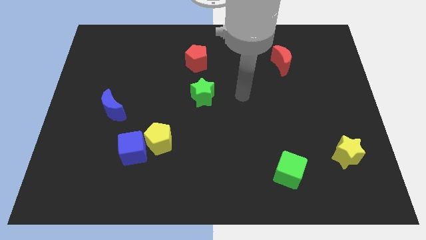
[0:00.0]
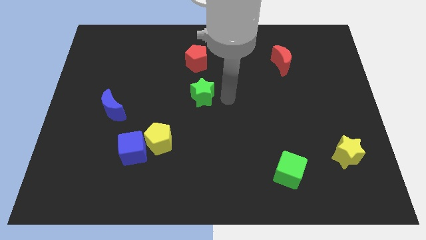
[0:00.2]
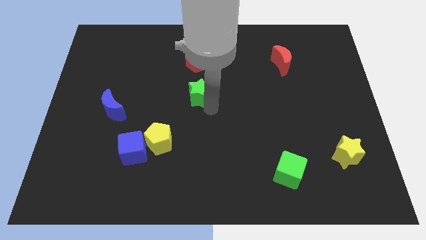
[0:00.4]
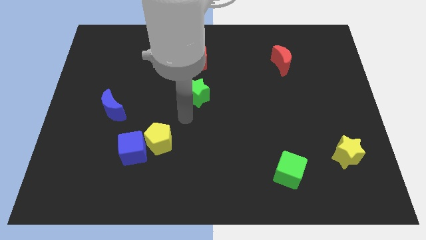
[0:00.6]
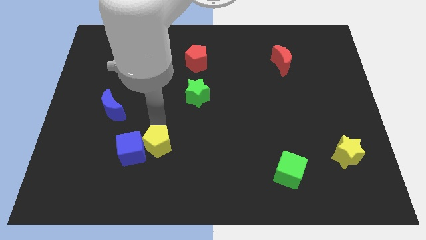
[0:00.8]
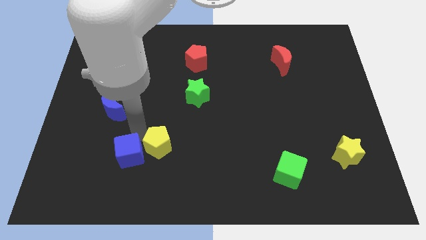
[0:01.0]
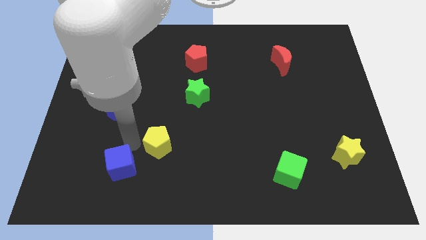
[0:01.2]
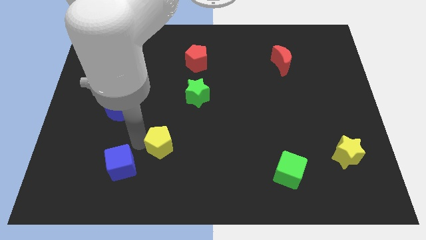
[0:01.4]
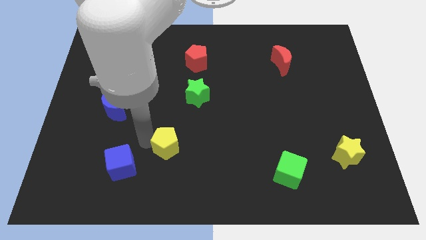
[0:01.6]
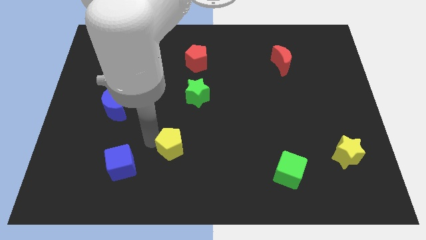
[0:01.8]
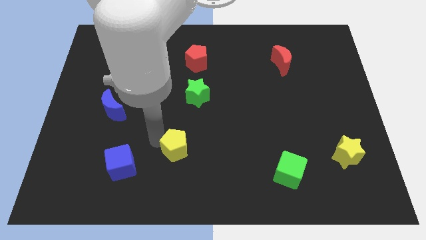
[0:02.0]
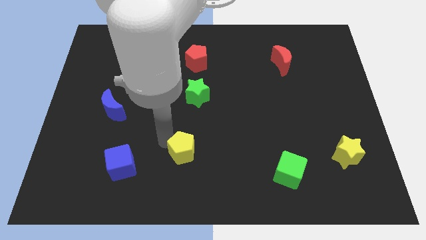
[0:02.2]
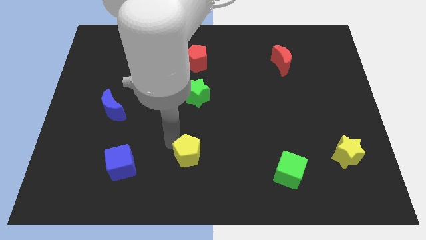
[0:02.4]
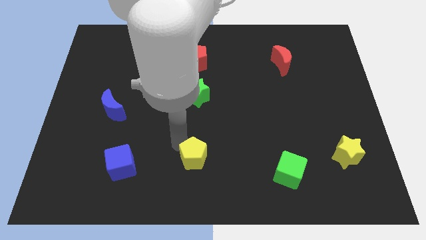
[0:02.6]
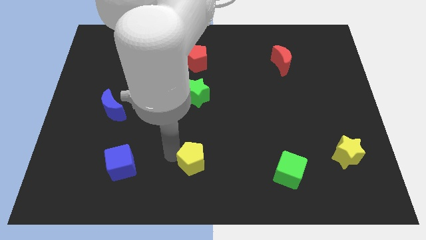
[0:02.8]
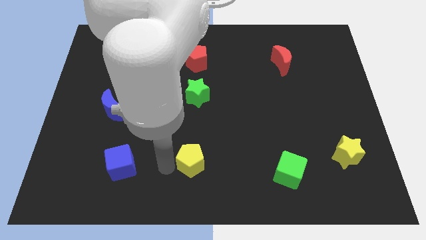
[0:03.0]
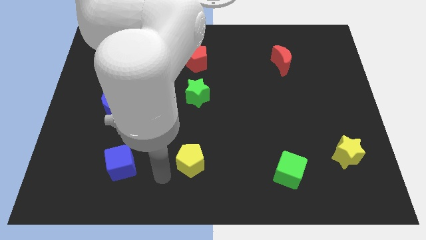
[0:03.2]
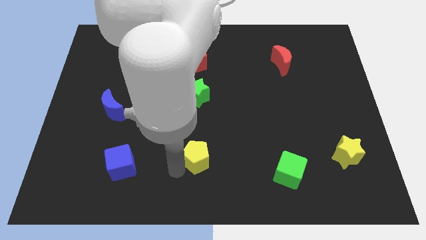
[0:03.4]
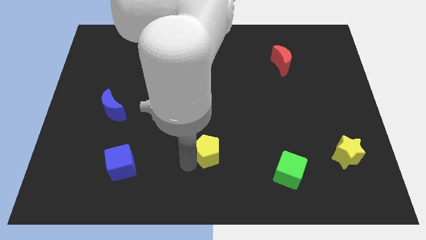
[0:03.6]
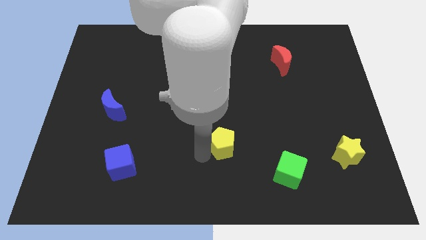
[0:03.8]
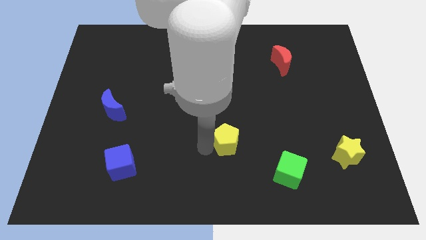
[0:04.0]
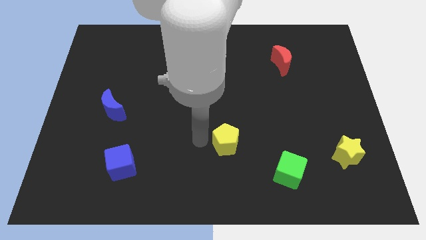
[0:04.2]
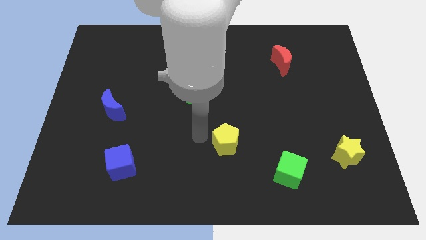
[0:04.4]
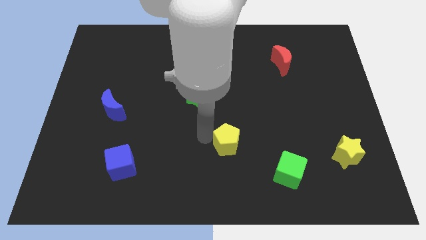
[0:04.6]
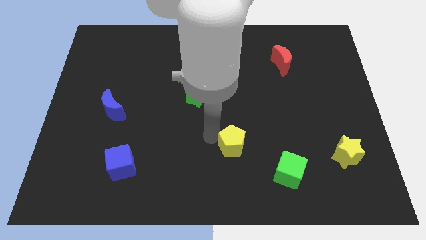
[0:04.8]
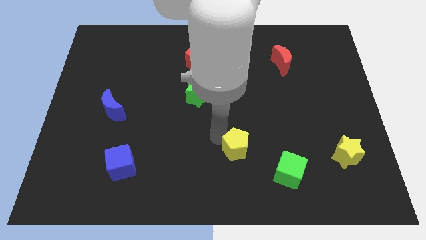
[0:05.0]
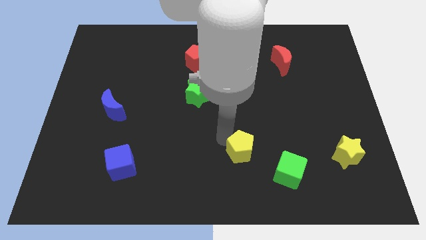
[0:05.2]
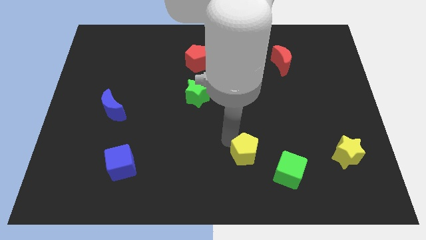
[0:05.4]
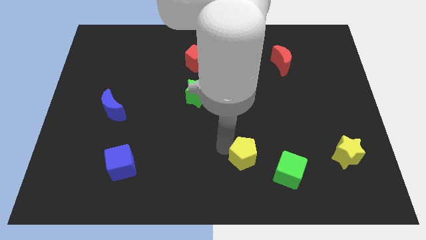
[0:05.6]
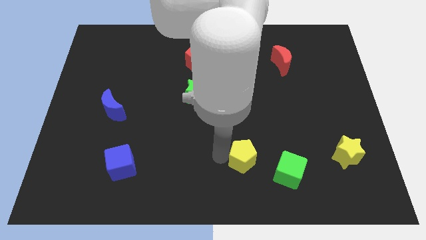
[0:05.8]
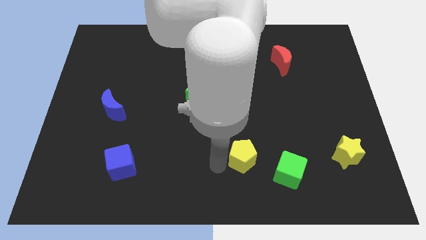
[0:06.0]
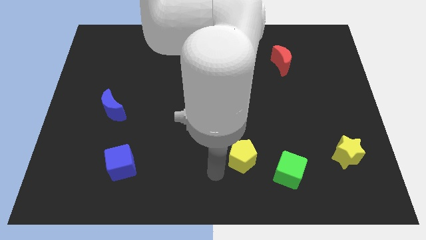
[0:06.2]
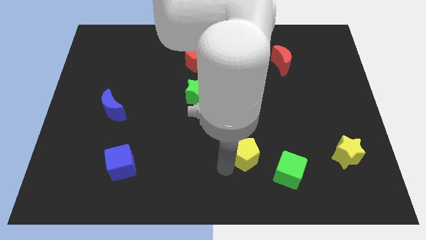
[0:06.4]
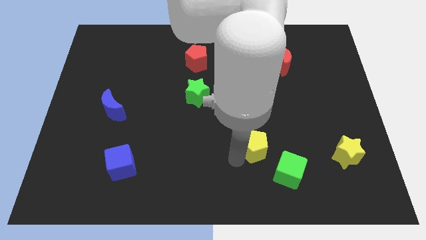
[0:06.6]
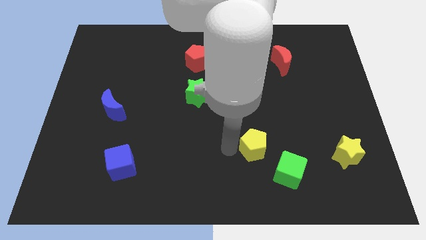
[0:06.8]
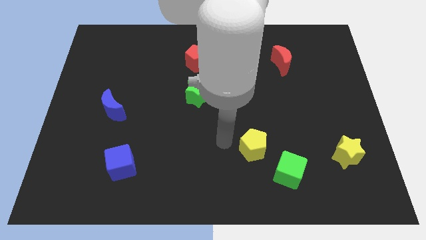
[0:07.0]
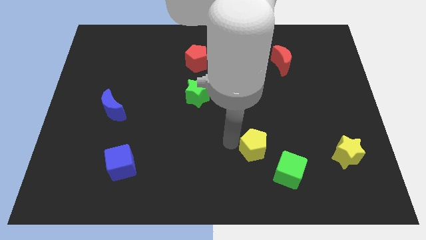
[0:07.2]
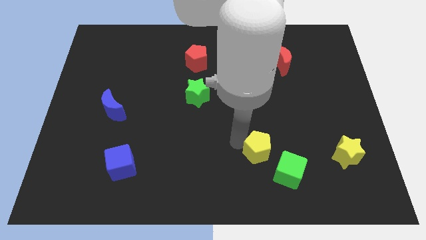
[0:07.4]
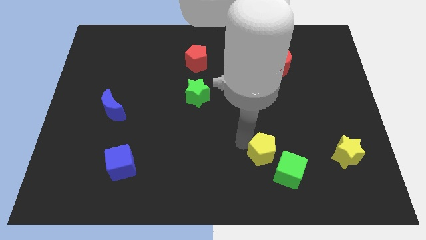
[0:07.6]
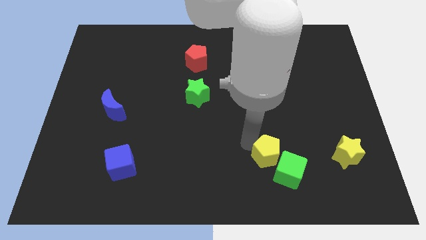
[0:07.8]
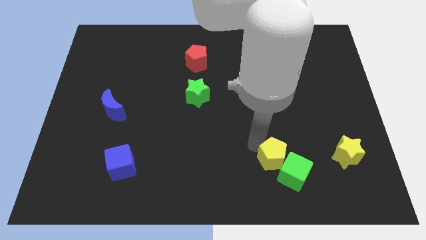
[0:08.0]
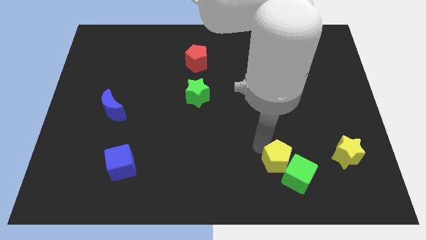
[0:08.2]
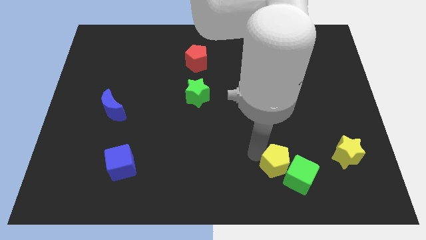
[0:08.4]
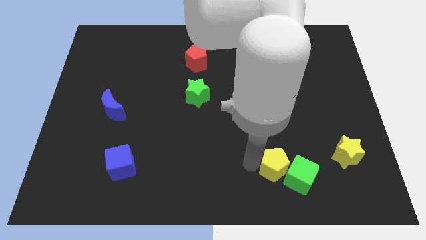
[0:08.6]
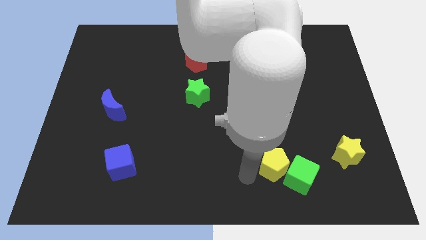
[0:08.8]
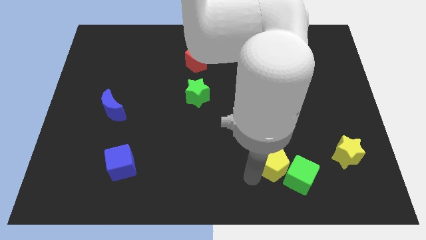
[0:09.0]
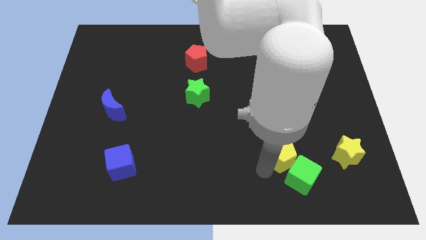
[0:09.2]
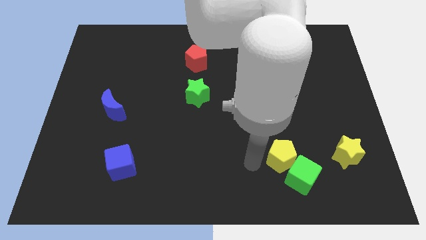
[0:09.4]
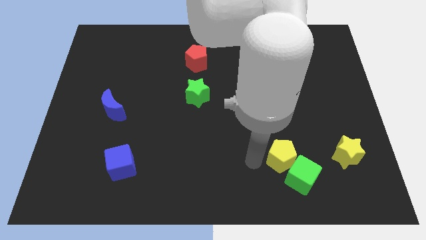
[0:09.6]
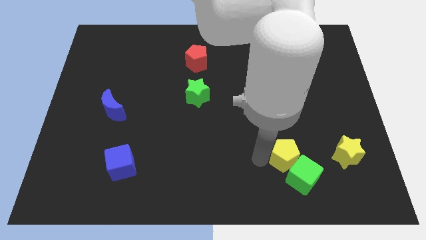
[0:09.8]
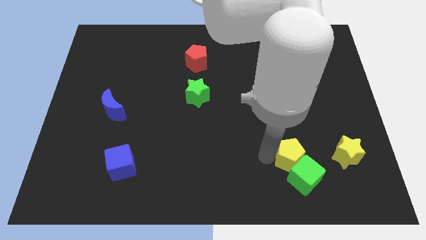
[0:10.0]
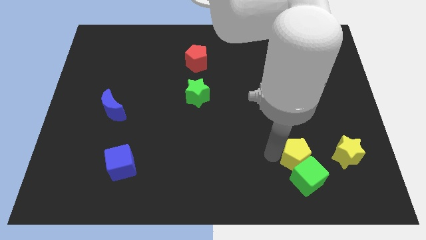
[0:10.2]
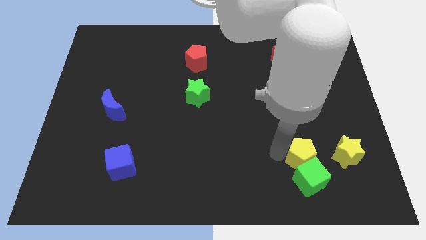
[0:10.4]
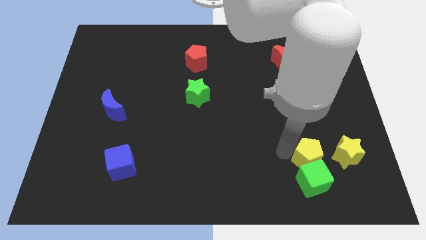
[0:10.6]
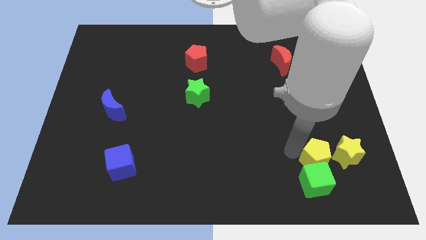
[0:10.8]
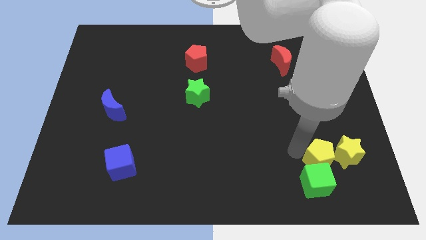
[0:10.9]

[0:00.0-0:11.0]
slide the yellow pentagon to the yellow star

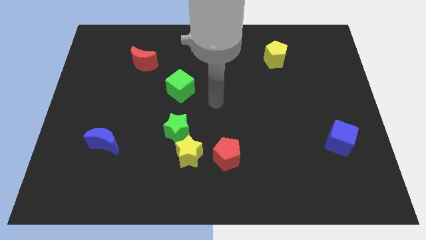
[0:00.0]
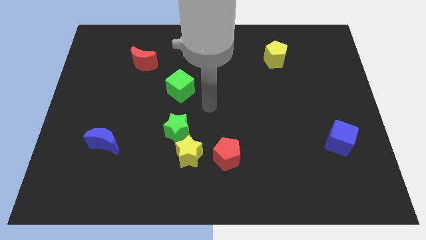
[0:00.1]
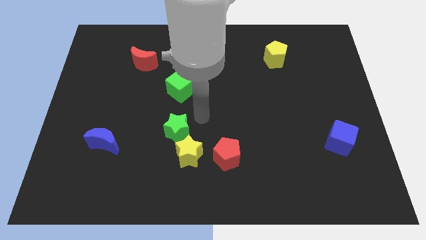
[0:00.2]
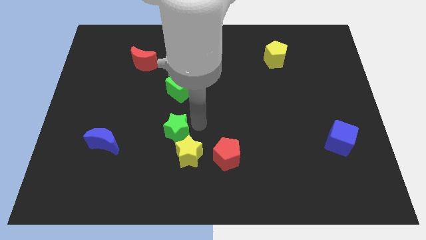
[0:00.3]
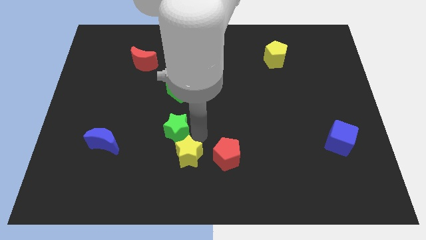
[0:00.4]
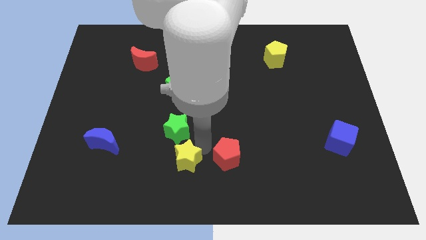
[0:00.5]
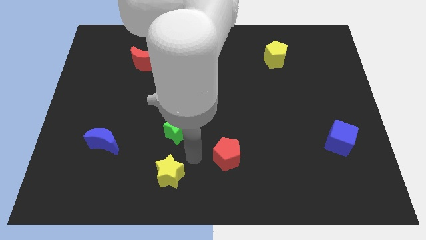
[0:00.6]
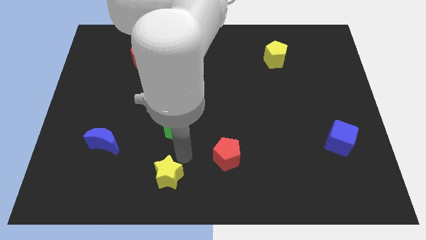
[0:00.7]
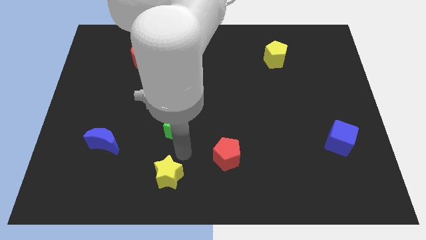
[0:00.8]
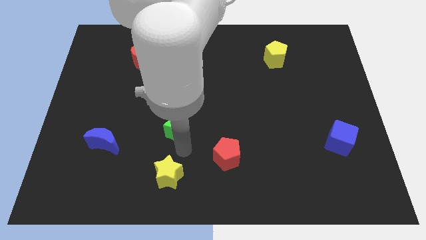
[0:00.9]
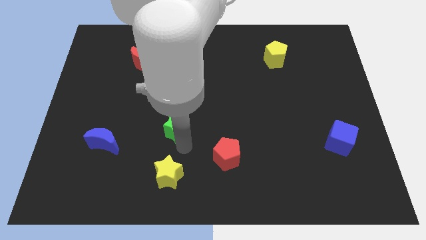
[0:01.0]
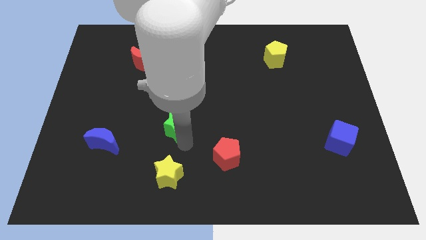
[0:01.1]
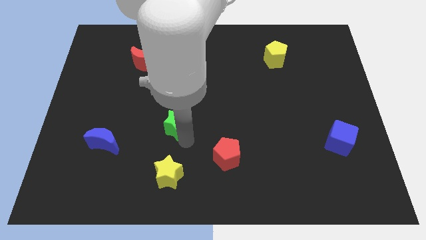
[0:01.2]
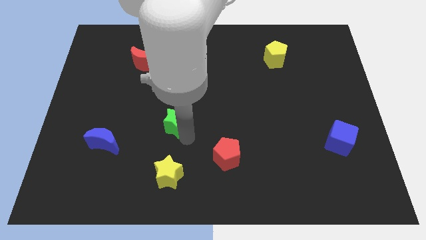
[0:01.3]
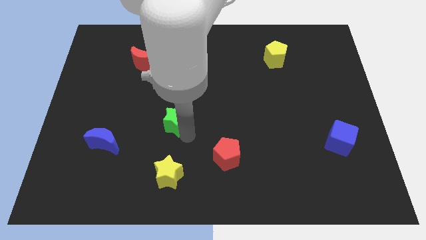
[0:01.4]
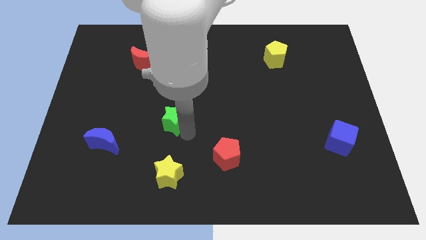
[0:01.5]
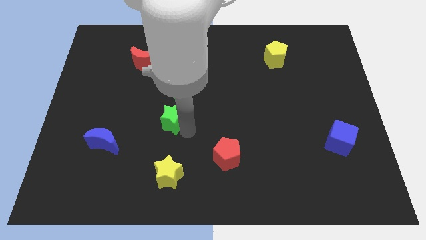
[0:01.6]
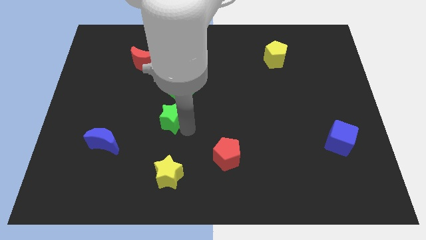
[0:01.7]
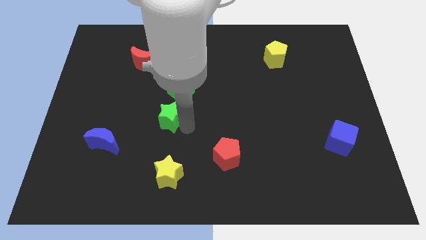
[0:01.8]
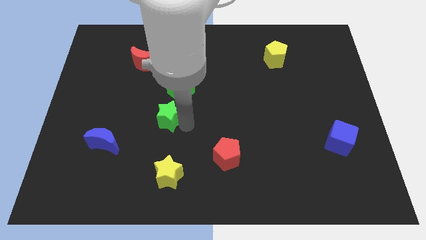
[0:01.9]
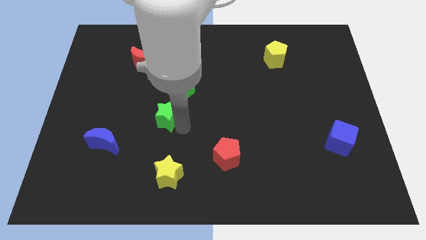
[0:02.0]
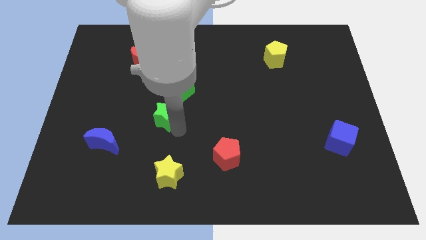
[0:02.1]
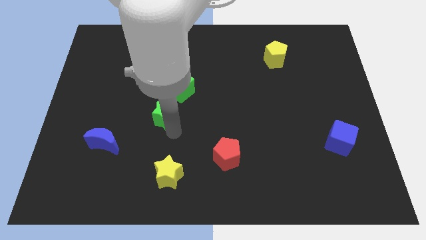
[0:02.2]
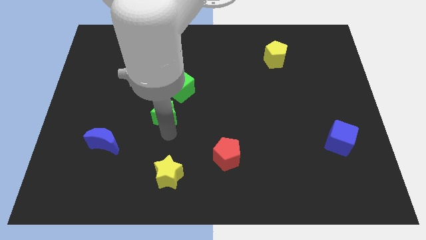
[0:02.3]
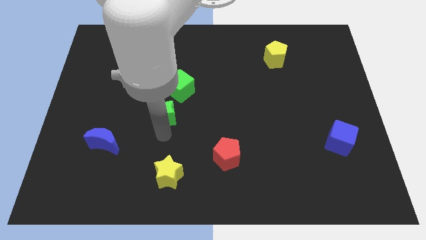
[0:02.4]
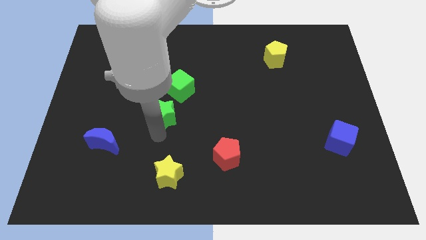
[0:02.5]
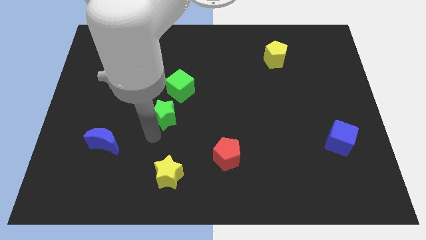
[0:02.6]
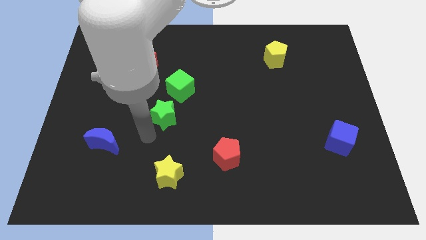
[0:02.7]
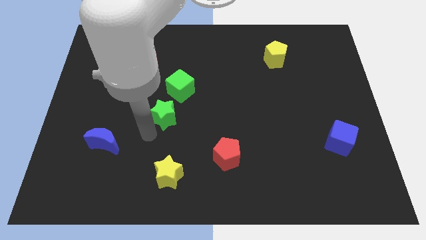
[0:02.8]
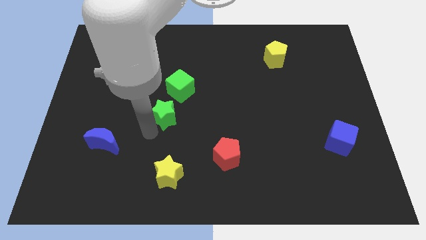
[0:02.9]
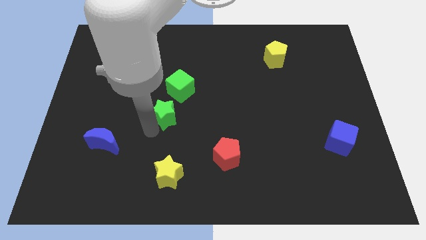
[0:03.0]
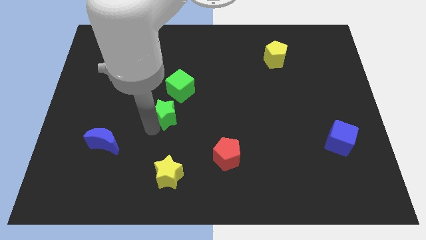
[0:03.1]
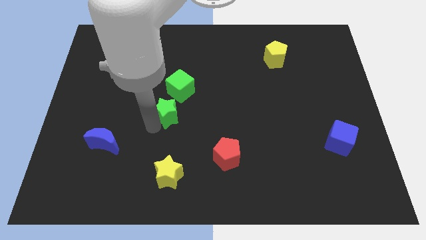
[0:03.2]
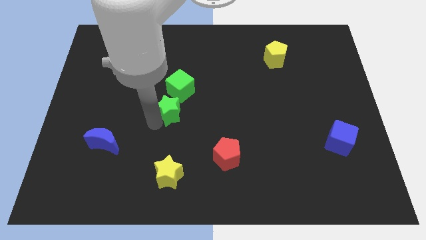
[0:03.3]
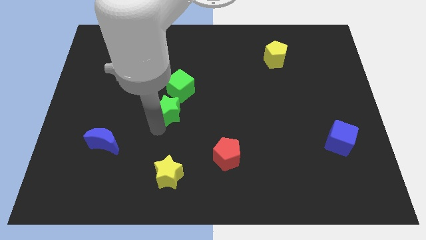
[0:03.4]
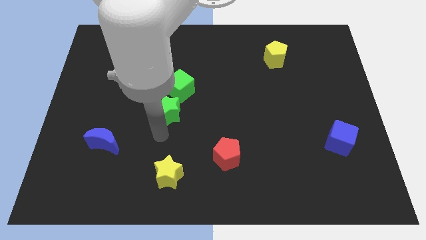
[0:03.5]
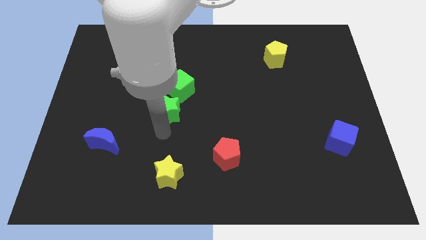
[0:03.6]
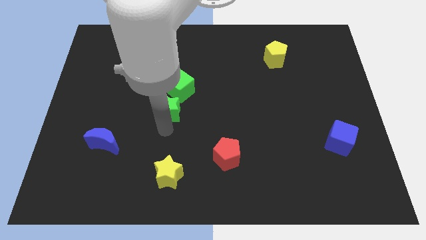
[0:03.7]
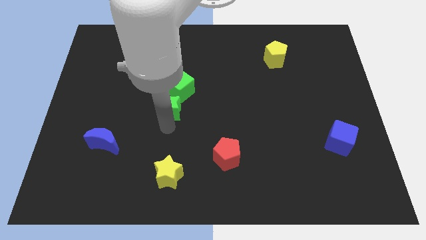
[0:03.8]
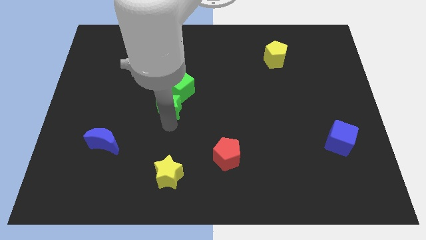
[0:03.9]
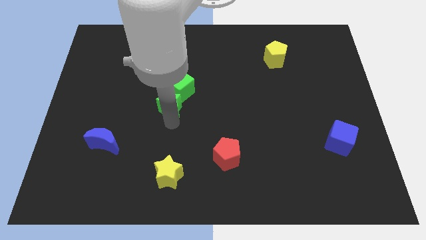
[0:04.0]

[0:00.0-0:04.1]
slide the green star next to the green cube
